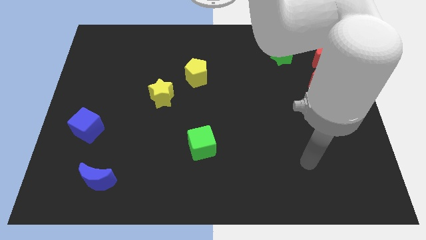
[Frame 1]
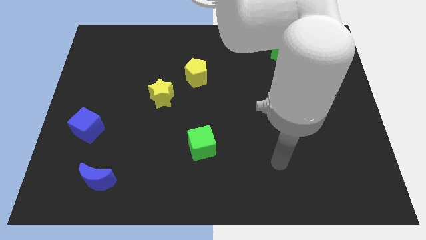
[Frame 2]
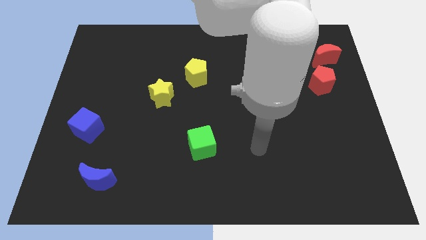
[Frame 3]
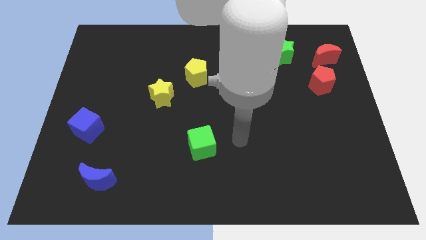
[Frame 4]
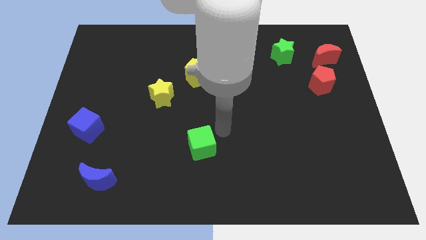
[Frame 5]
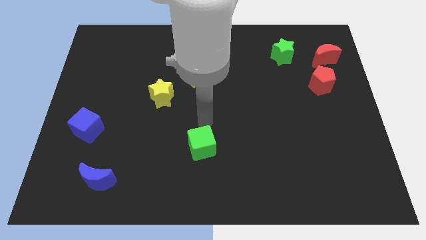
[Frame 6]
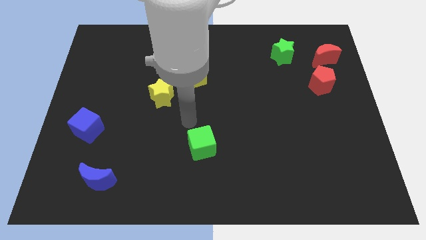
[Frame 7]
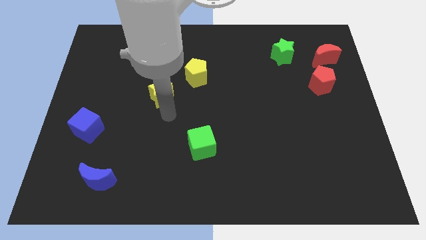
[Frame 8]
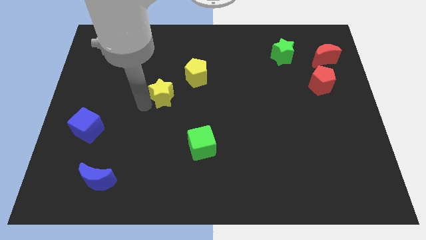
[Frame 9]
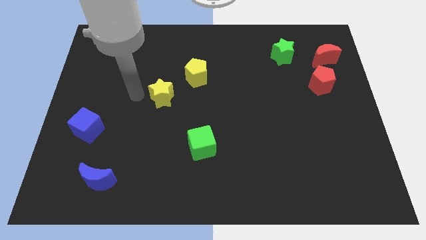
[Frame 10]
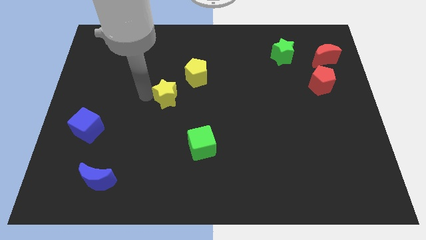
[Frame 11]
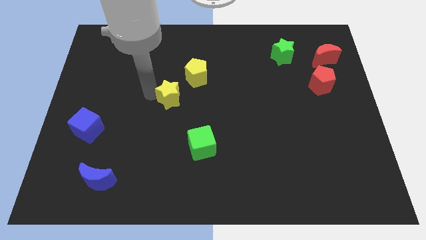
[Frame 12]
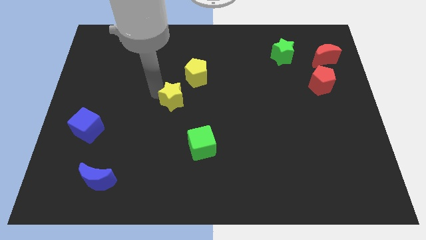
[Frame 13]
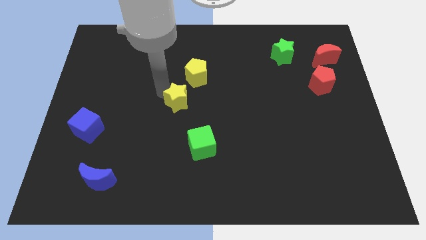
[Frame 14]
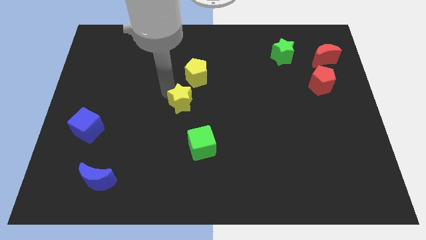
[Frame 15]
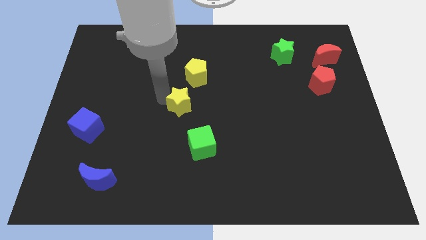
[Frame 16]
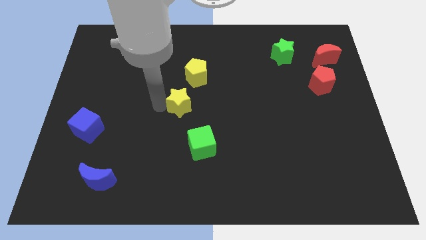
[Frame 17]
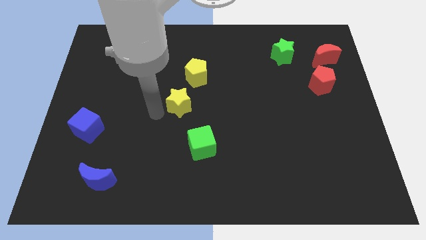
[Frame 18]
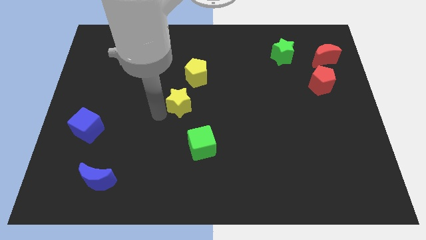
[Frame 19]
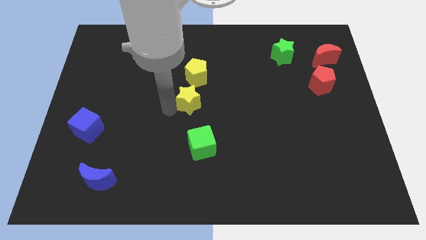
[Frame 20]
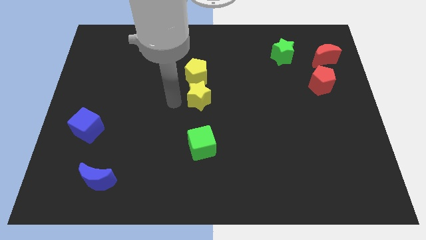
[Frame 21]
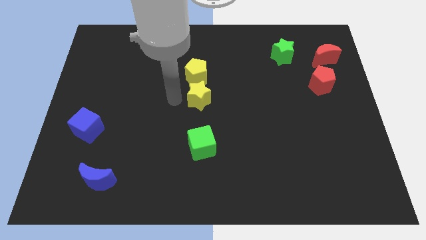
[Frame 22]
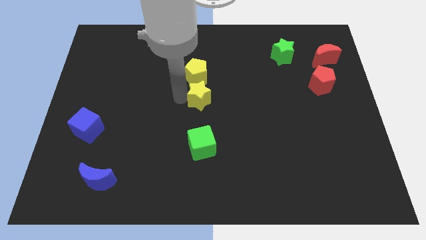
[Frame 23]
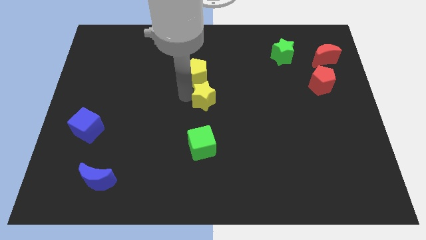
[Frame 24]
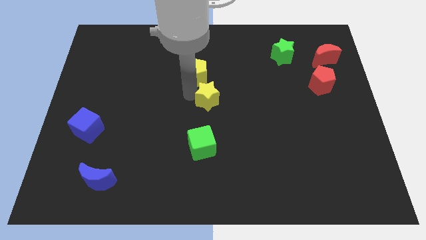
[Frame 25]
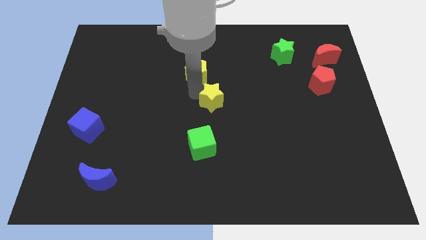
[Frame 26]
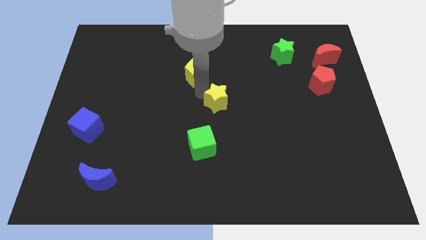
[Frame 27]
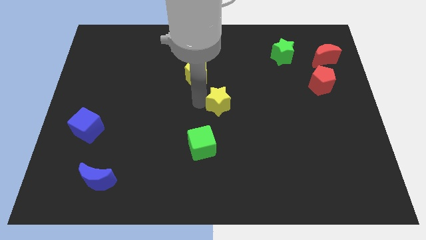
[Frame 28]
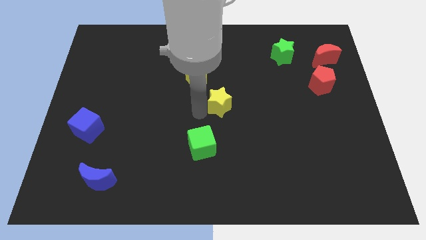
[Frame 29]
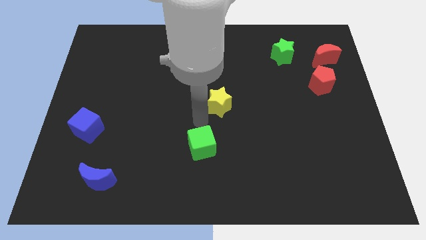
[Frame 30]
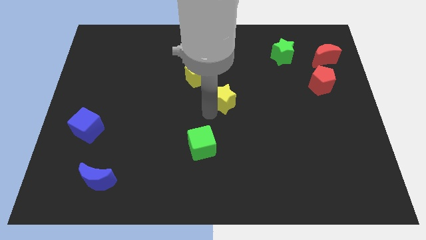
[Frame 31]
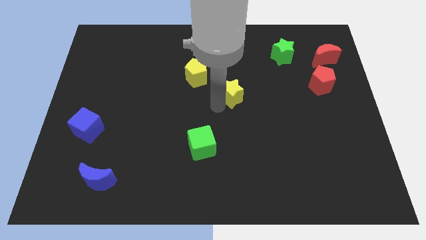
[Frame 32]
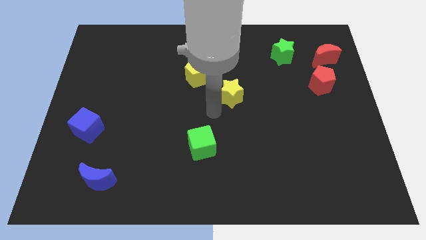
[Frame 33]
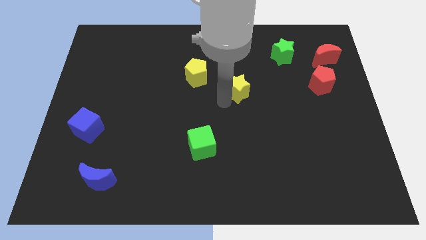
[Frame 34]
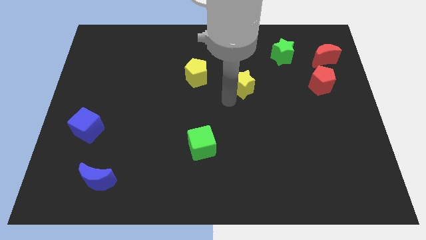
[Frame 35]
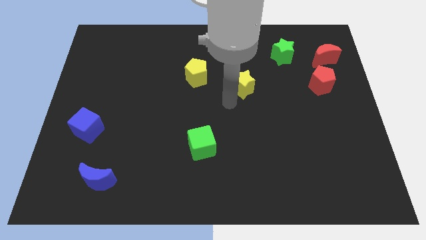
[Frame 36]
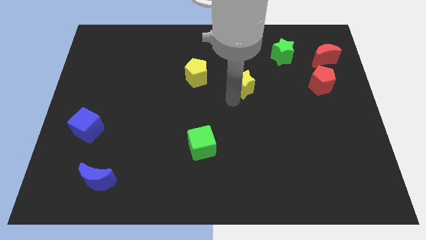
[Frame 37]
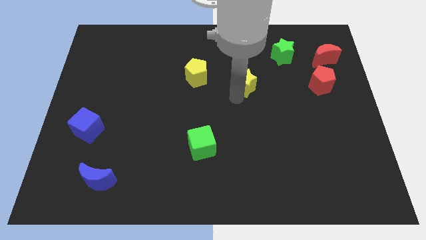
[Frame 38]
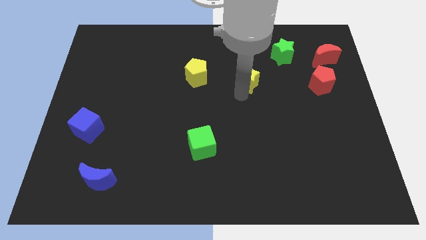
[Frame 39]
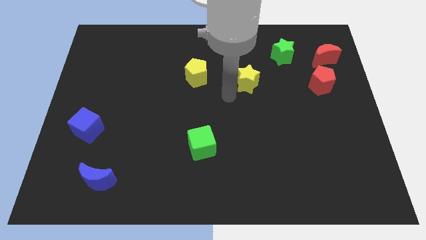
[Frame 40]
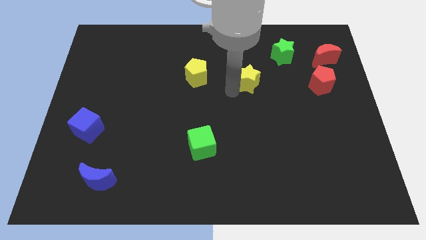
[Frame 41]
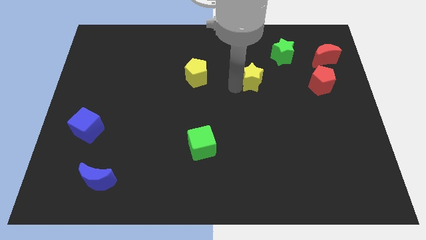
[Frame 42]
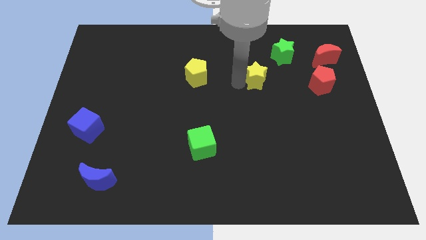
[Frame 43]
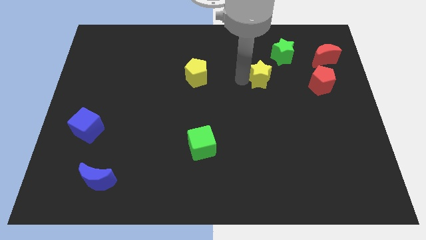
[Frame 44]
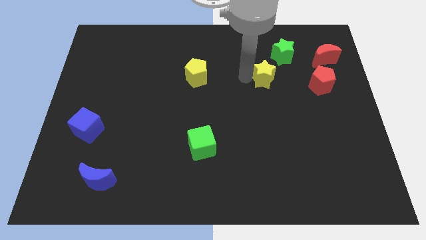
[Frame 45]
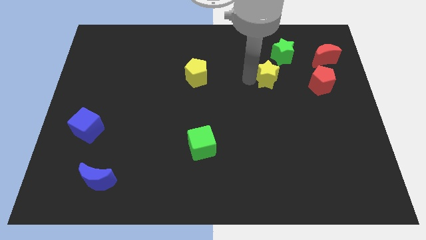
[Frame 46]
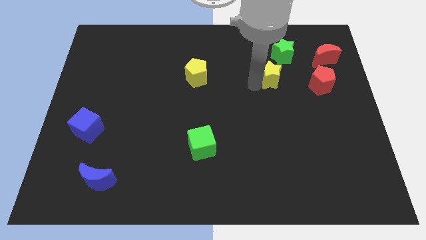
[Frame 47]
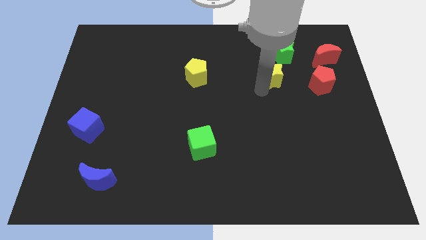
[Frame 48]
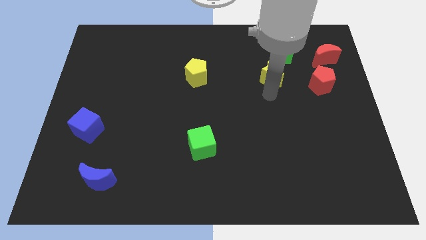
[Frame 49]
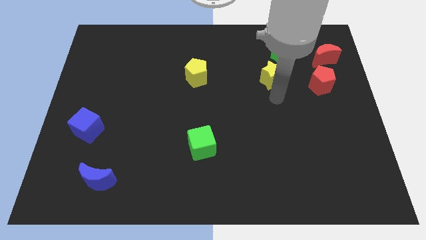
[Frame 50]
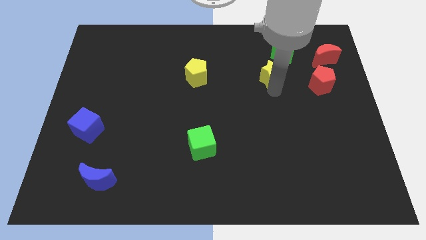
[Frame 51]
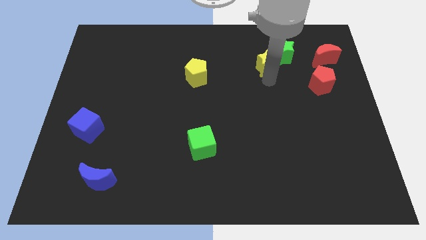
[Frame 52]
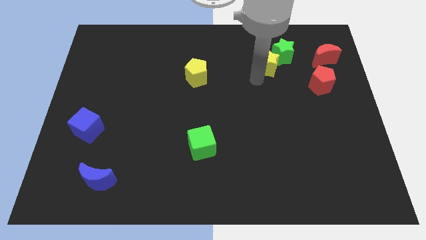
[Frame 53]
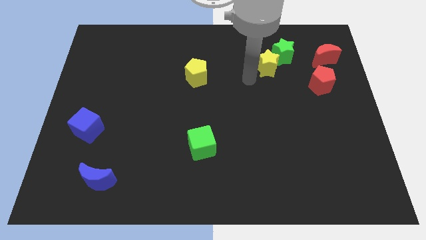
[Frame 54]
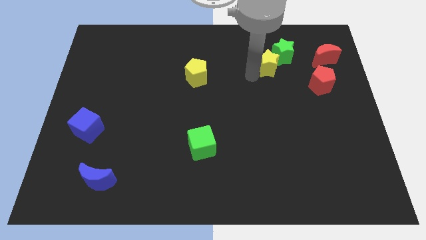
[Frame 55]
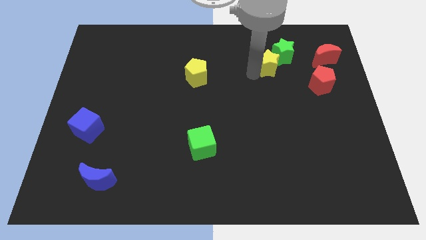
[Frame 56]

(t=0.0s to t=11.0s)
slide the yellow star close to the green star
